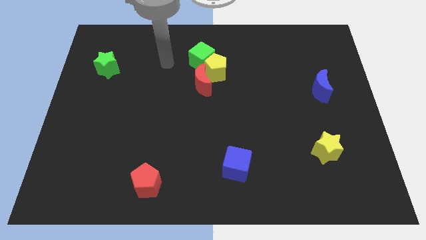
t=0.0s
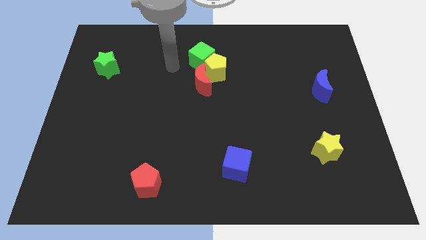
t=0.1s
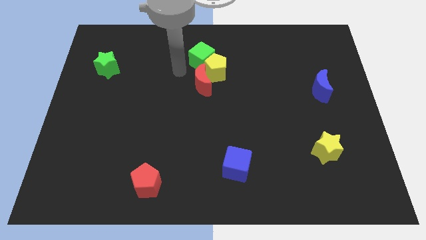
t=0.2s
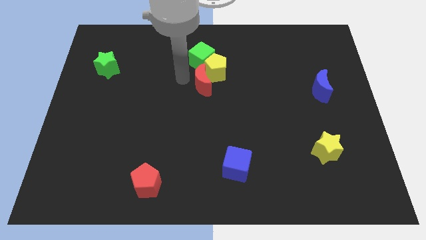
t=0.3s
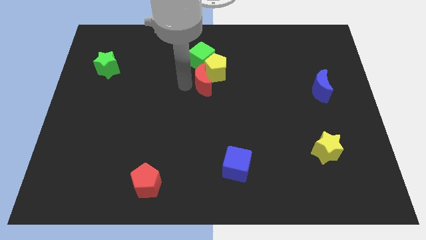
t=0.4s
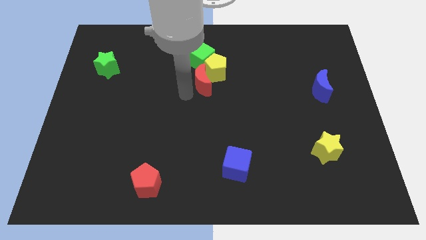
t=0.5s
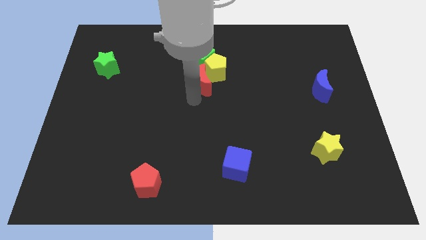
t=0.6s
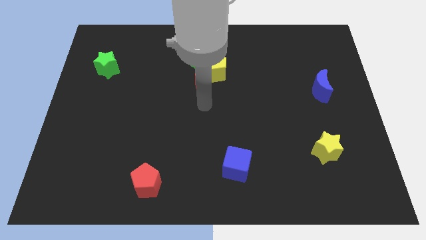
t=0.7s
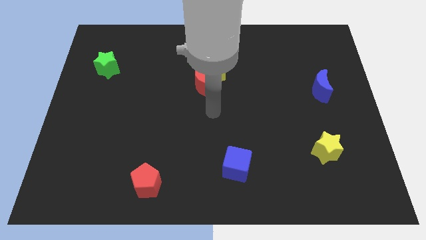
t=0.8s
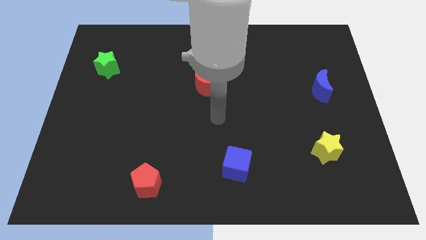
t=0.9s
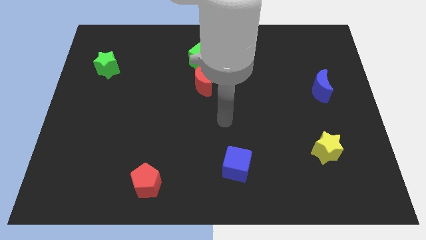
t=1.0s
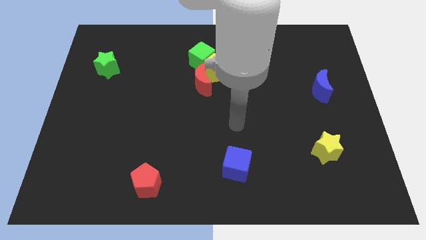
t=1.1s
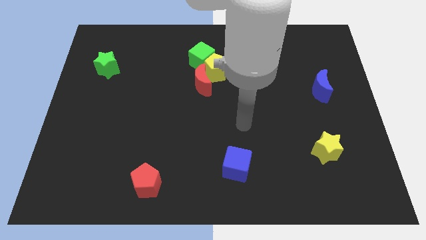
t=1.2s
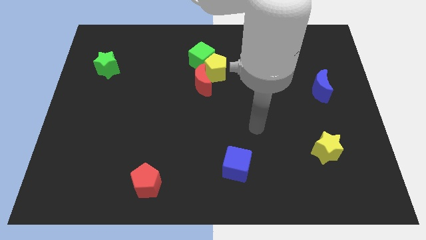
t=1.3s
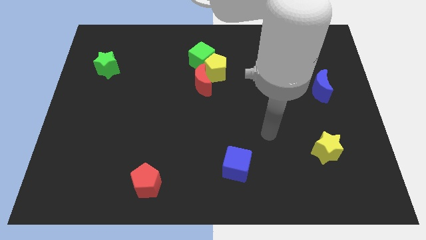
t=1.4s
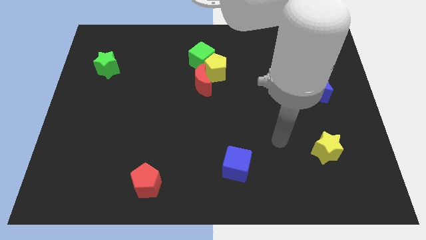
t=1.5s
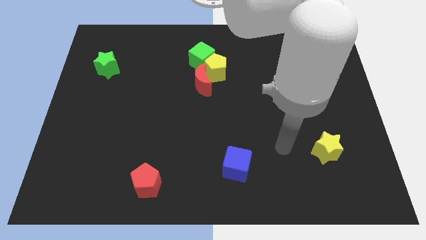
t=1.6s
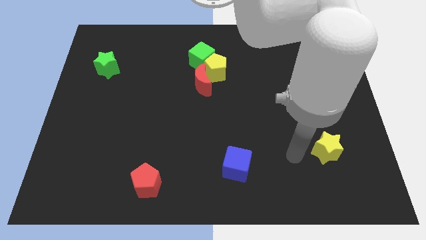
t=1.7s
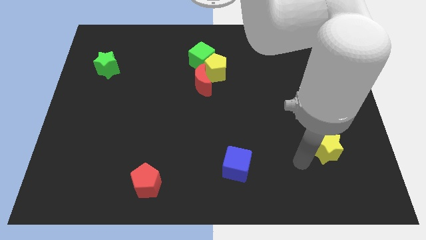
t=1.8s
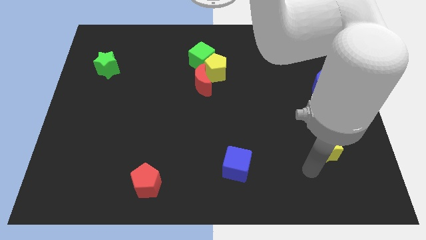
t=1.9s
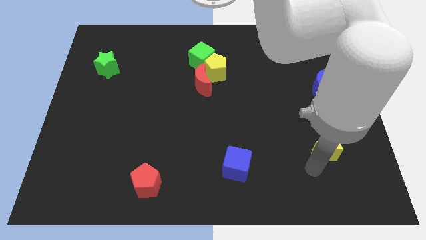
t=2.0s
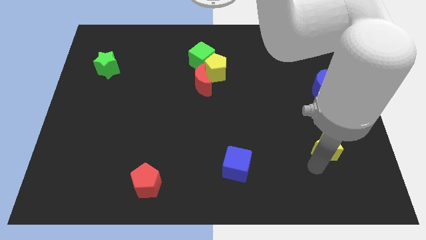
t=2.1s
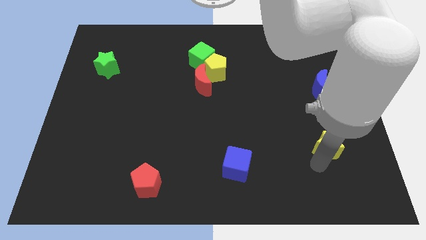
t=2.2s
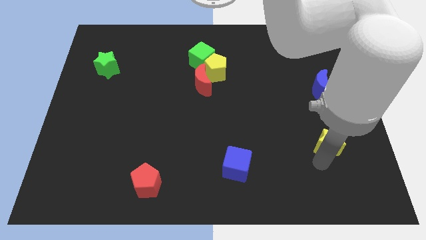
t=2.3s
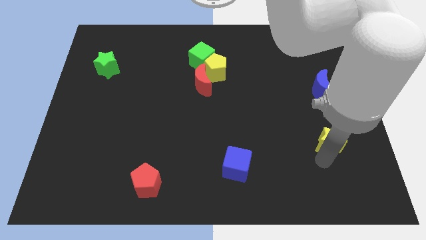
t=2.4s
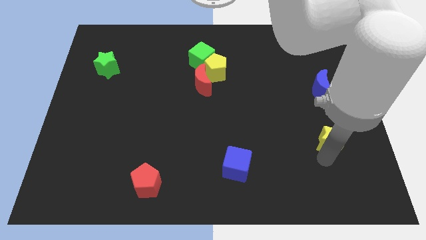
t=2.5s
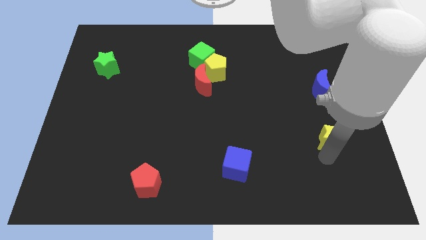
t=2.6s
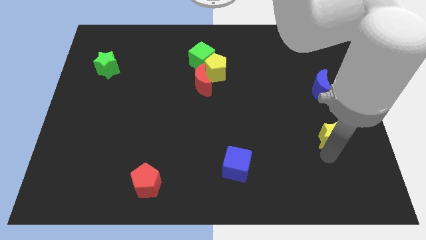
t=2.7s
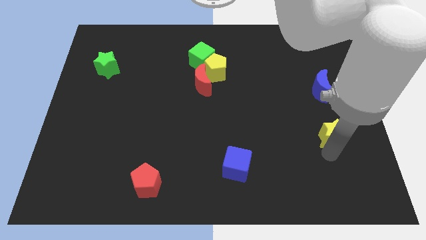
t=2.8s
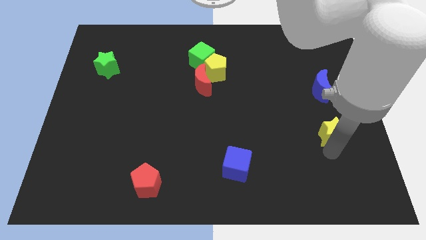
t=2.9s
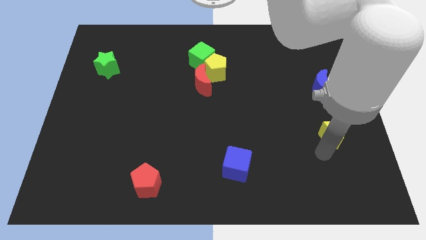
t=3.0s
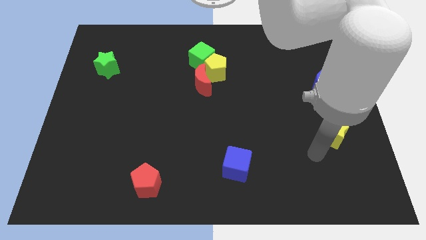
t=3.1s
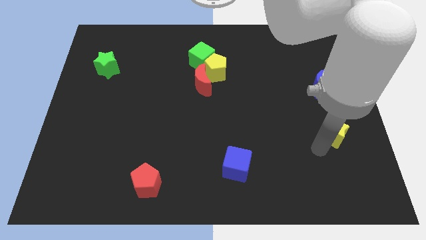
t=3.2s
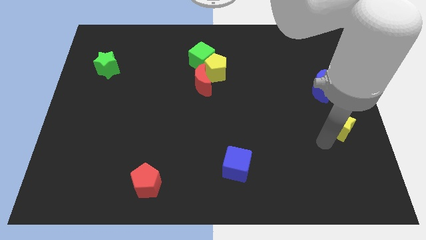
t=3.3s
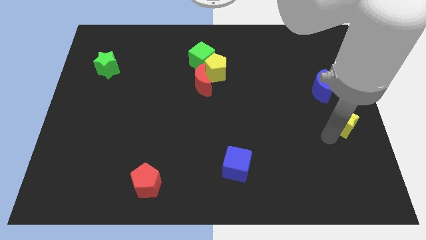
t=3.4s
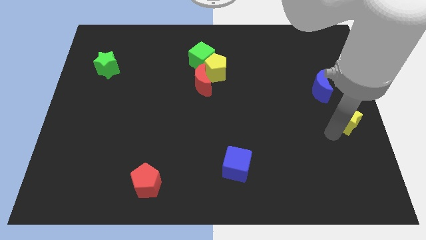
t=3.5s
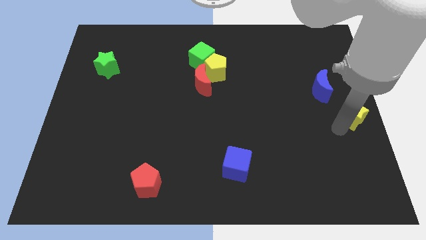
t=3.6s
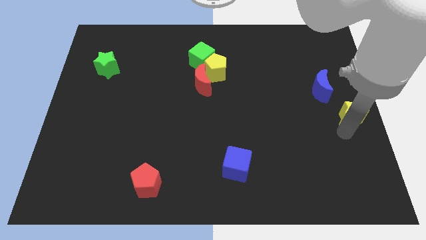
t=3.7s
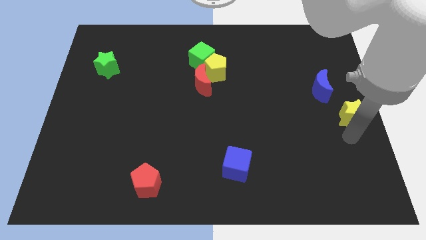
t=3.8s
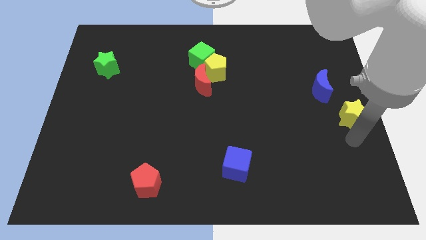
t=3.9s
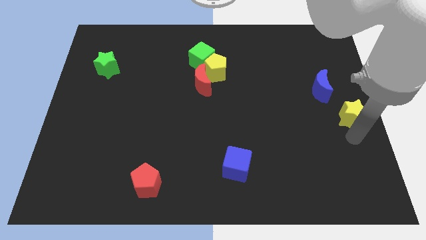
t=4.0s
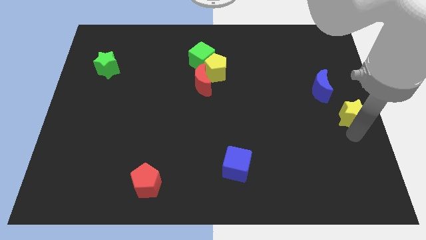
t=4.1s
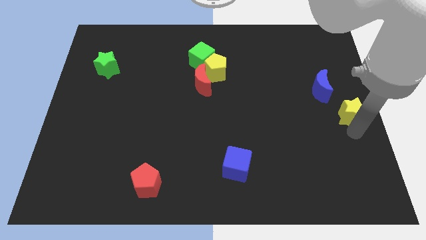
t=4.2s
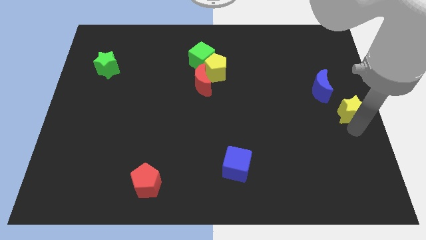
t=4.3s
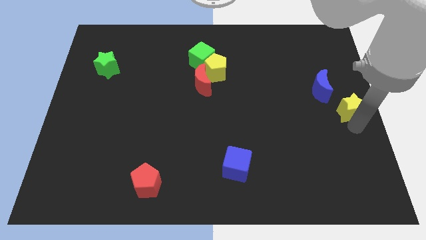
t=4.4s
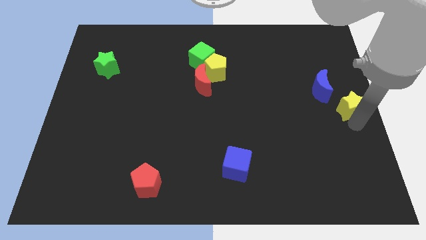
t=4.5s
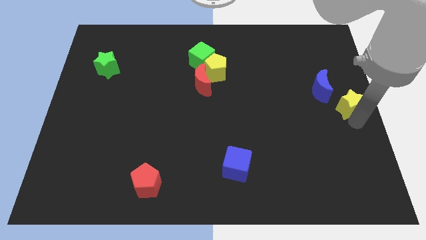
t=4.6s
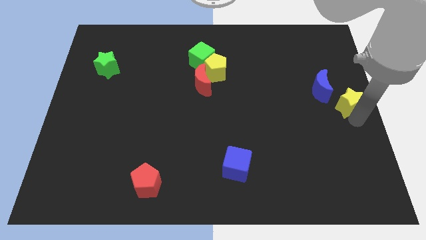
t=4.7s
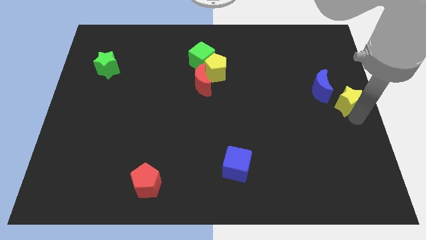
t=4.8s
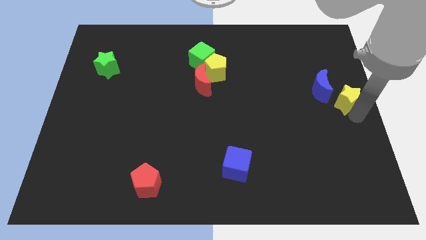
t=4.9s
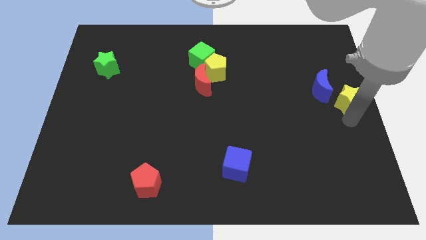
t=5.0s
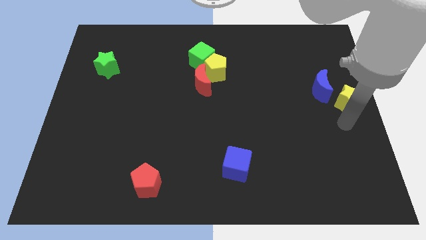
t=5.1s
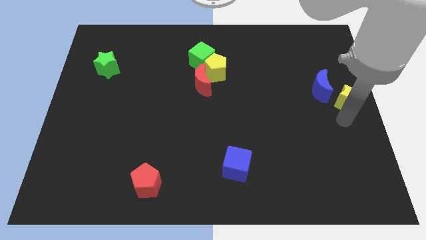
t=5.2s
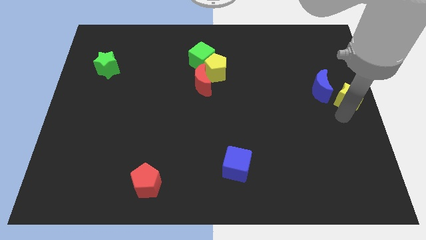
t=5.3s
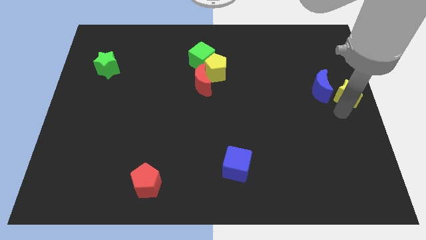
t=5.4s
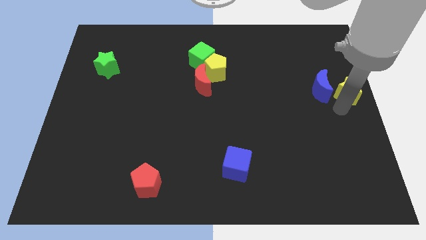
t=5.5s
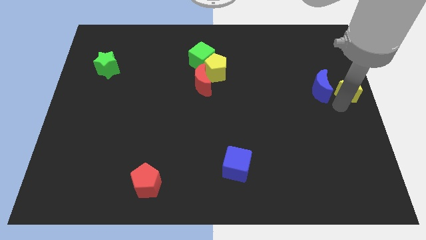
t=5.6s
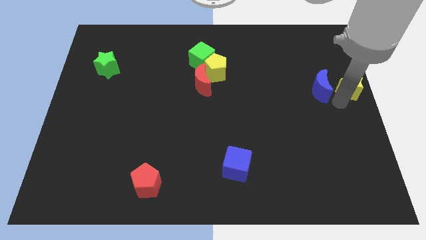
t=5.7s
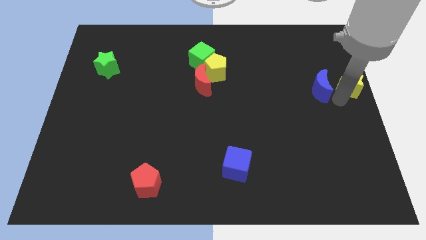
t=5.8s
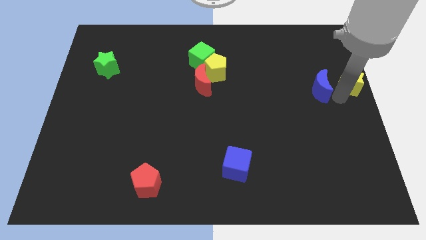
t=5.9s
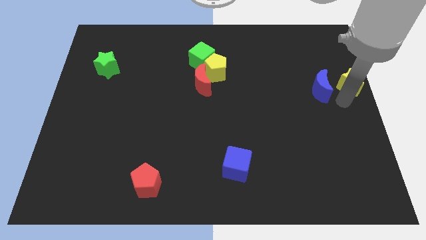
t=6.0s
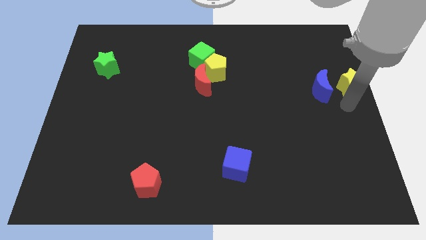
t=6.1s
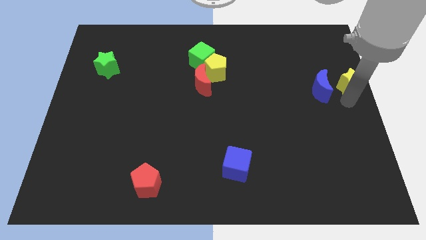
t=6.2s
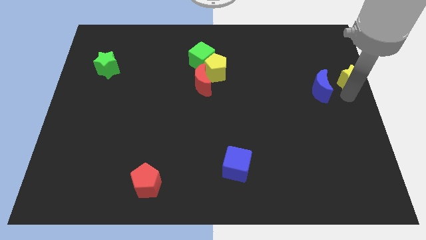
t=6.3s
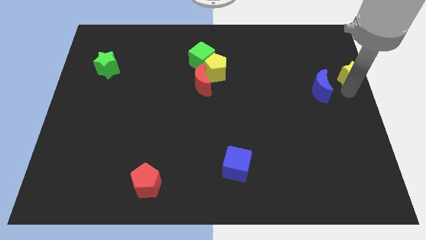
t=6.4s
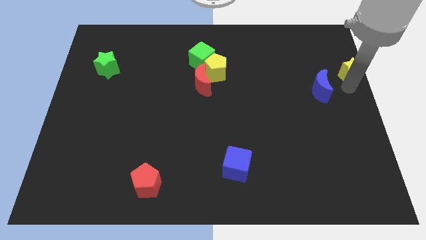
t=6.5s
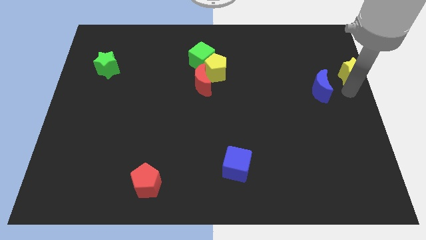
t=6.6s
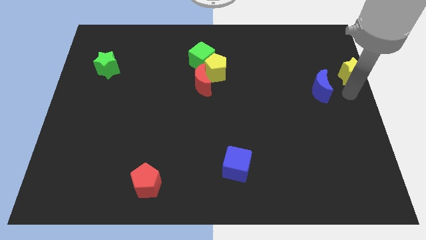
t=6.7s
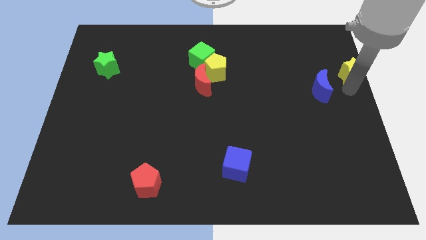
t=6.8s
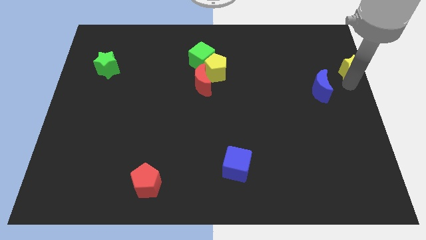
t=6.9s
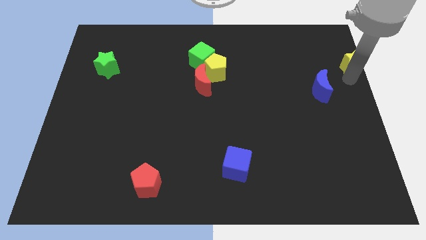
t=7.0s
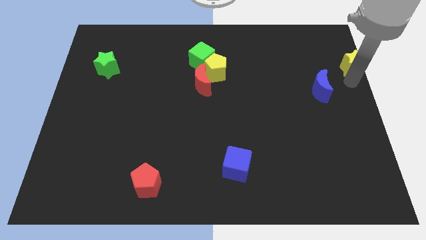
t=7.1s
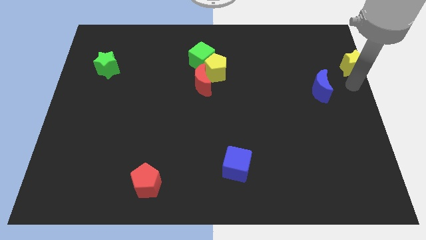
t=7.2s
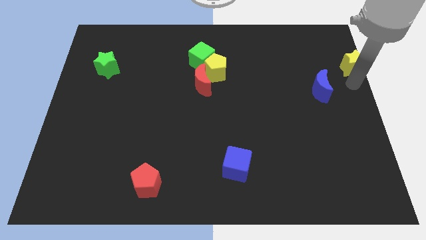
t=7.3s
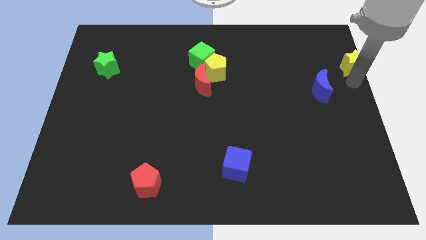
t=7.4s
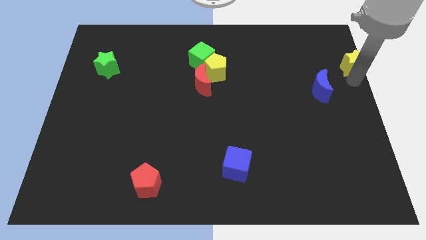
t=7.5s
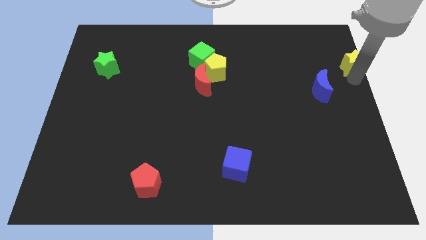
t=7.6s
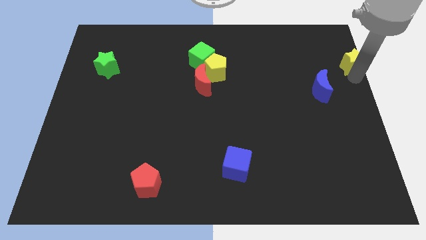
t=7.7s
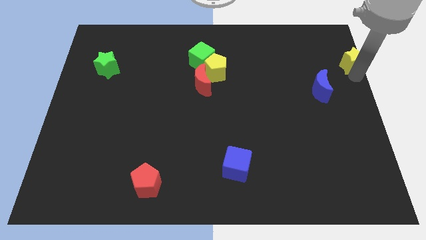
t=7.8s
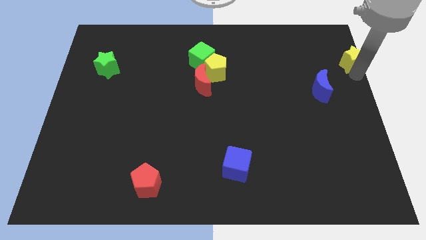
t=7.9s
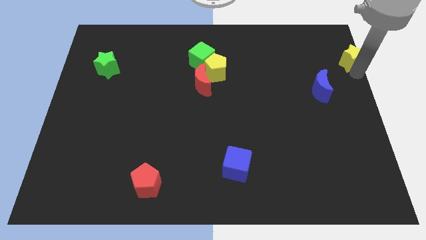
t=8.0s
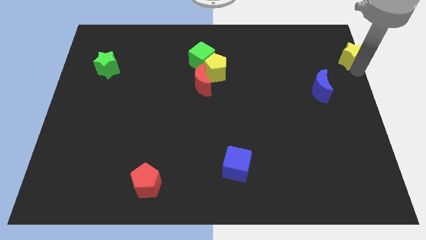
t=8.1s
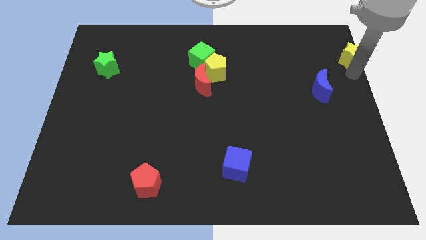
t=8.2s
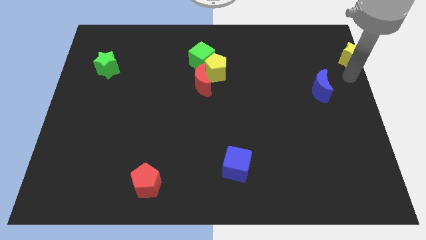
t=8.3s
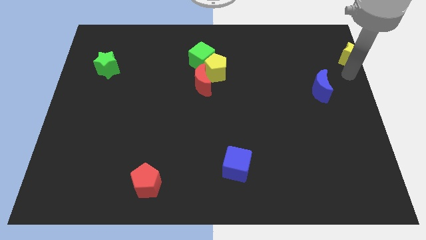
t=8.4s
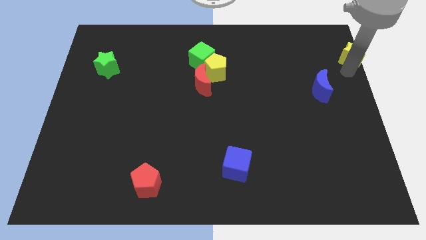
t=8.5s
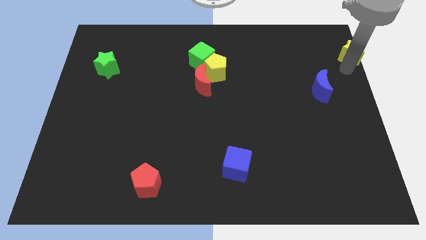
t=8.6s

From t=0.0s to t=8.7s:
push the yellow star to the top right
